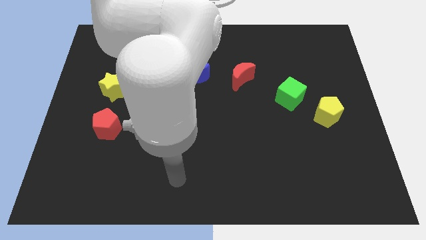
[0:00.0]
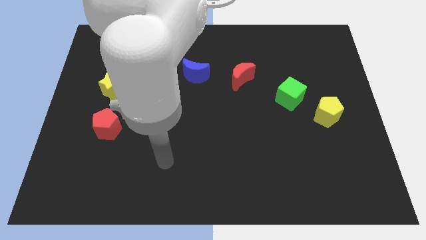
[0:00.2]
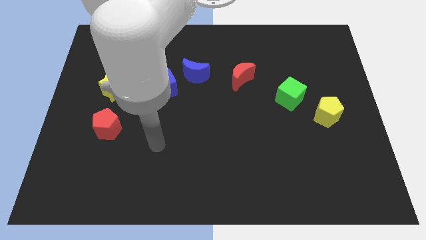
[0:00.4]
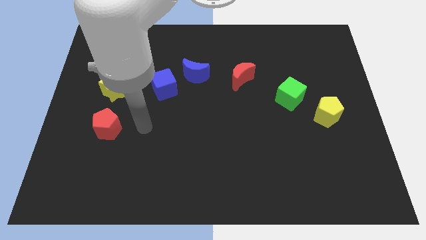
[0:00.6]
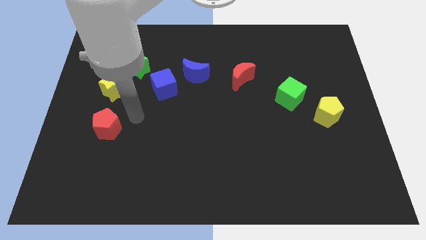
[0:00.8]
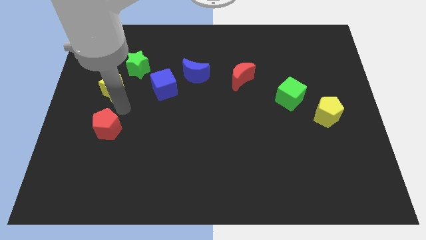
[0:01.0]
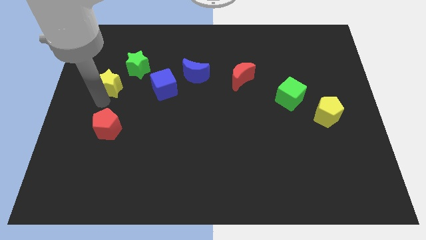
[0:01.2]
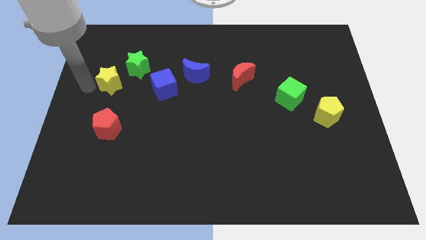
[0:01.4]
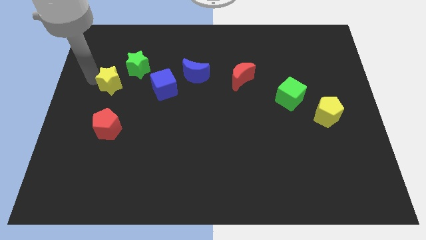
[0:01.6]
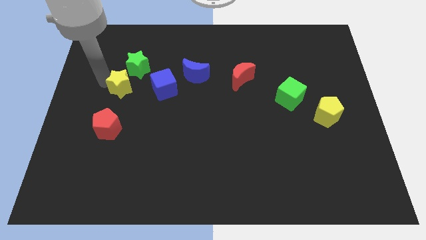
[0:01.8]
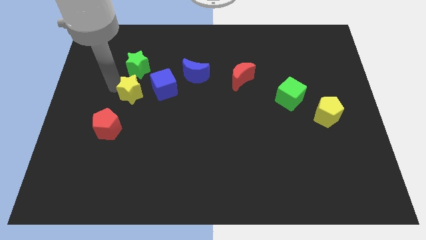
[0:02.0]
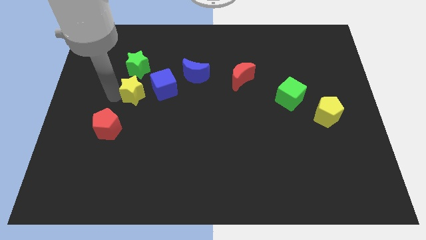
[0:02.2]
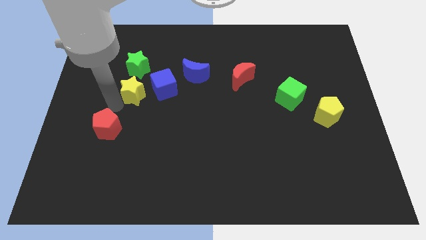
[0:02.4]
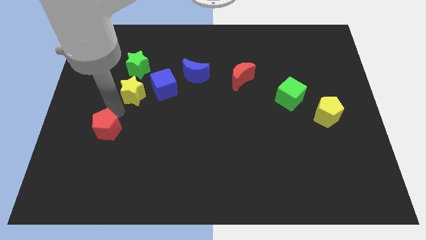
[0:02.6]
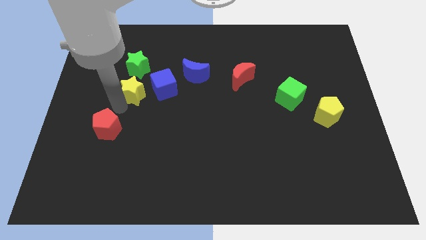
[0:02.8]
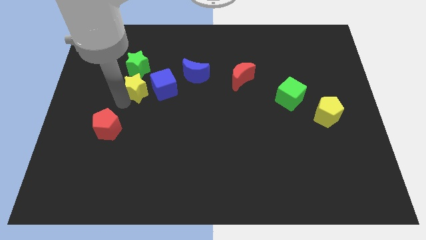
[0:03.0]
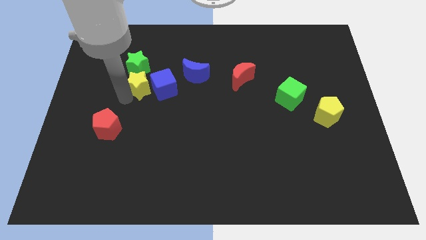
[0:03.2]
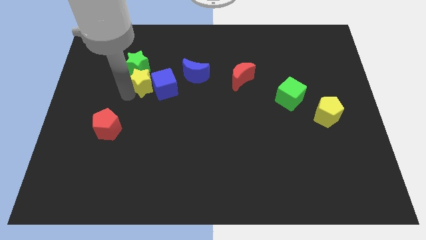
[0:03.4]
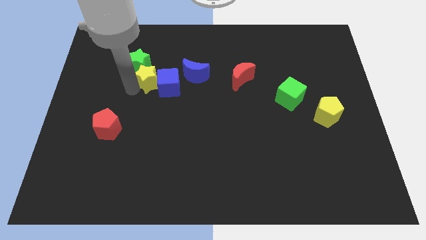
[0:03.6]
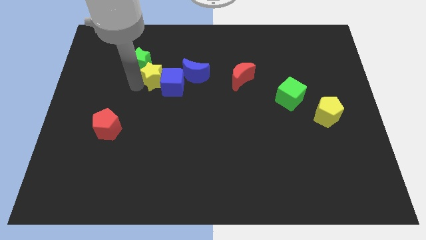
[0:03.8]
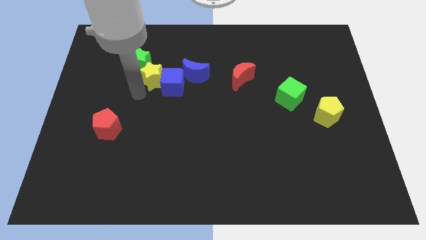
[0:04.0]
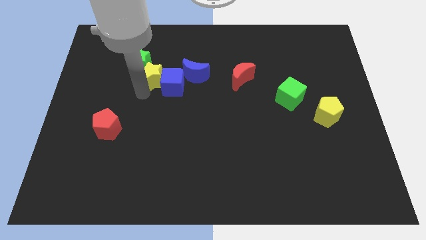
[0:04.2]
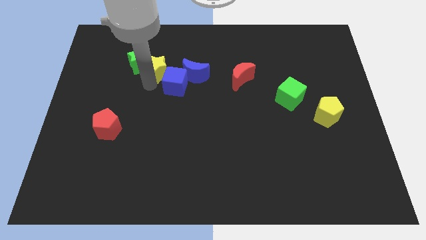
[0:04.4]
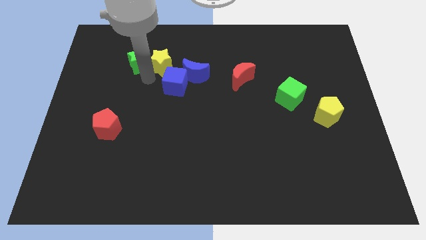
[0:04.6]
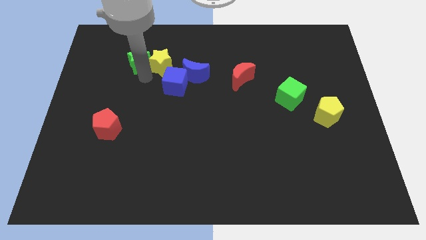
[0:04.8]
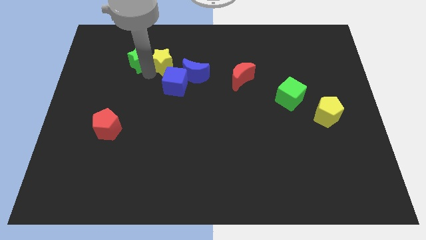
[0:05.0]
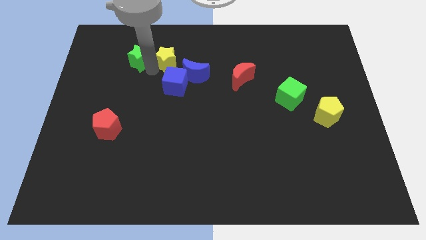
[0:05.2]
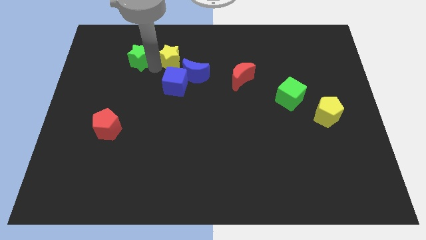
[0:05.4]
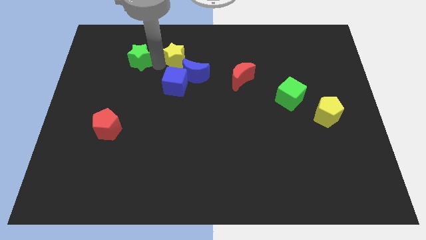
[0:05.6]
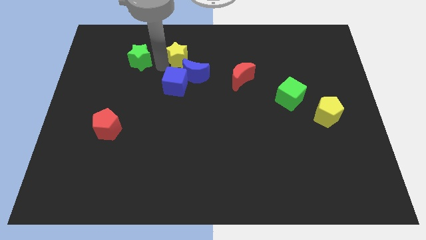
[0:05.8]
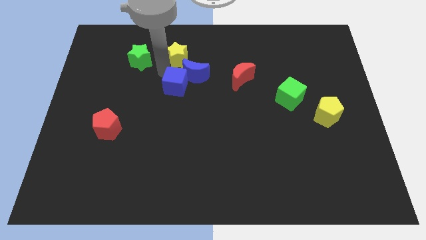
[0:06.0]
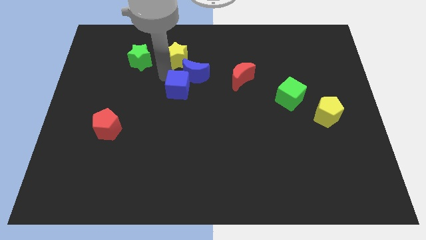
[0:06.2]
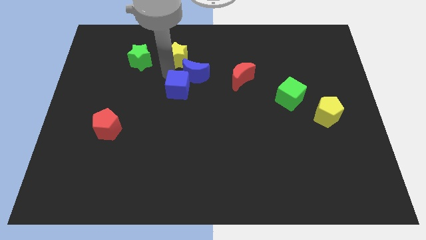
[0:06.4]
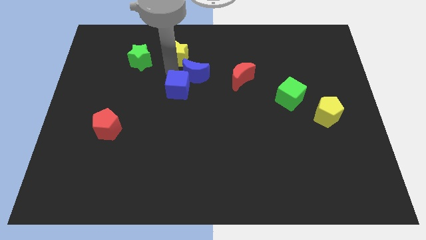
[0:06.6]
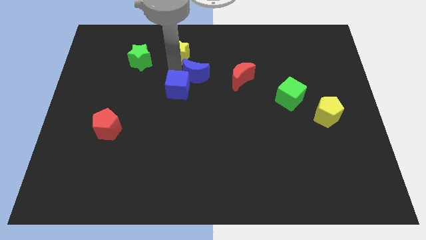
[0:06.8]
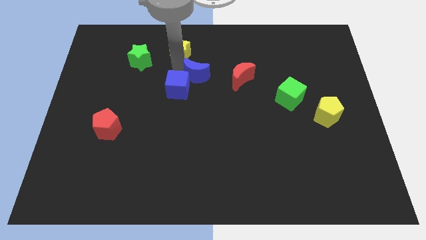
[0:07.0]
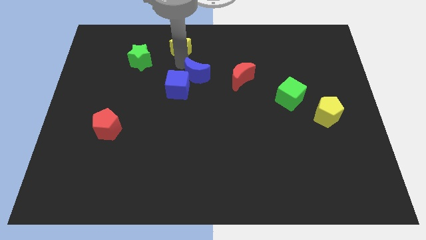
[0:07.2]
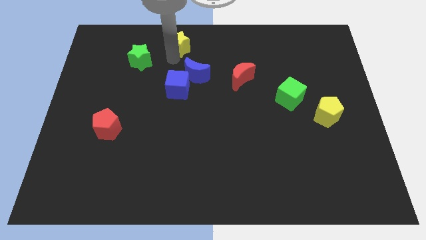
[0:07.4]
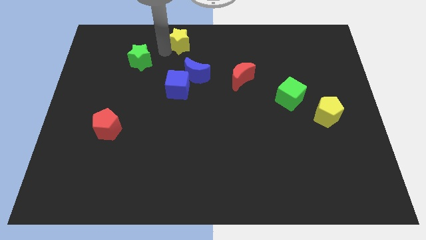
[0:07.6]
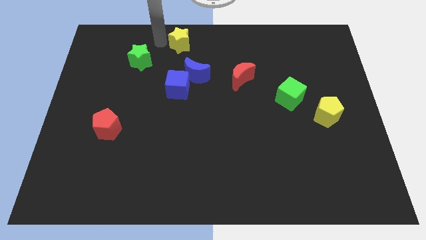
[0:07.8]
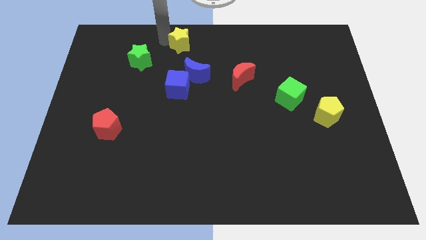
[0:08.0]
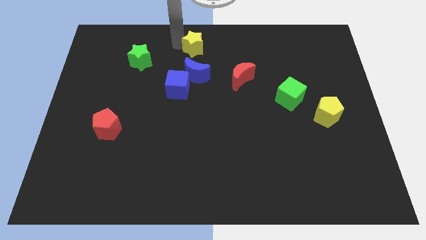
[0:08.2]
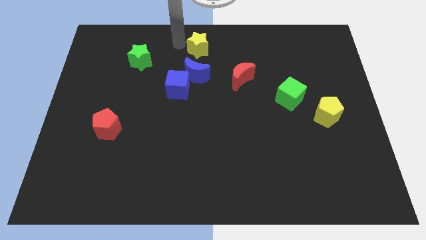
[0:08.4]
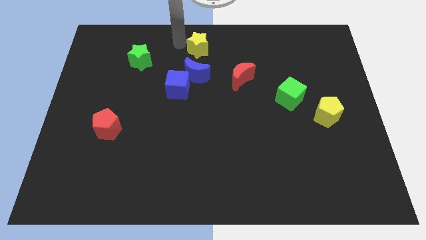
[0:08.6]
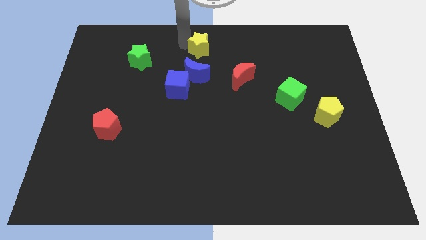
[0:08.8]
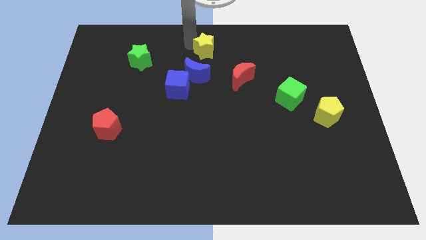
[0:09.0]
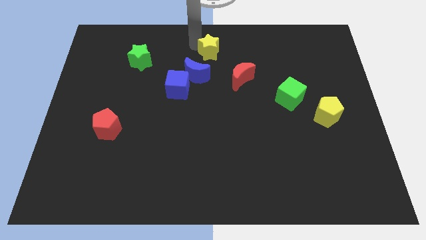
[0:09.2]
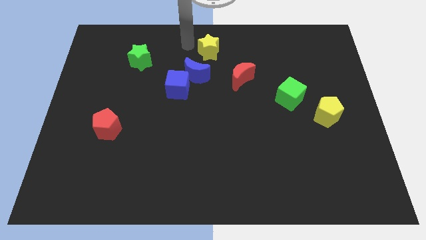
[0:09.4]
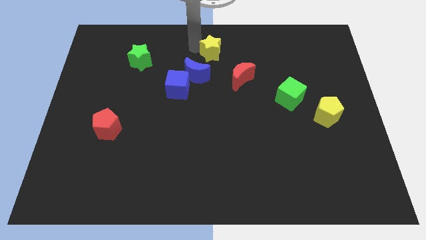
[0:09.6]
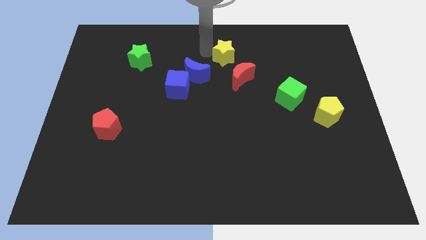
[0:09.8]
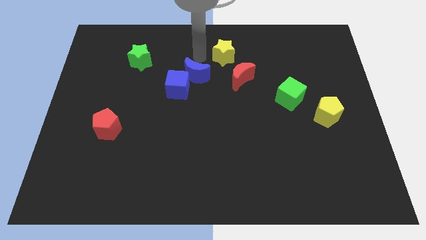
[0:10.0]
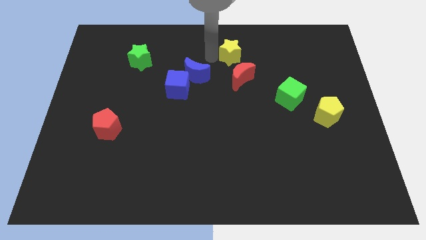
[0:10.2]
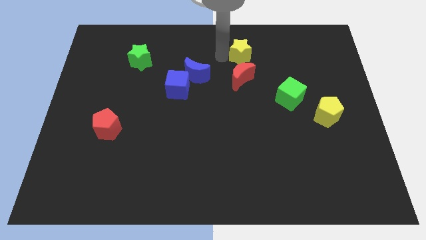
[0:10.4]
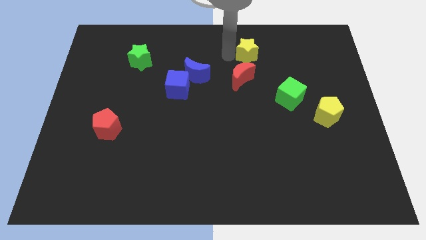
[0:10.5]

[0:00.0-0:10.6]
slide the yellow star to the top right side of the red moon

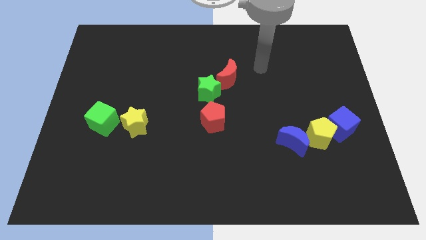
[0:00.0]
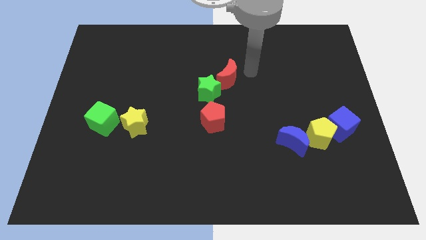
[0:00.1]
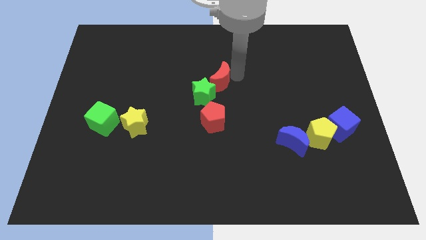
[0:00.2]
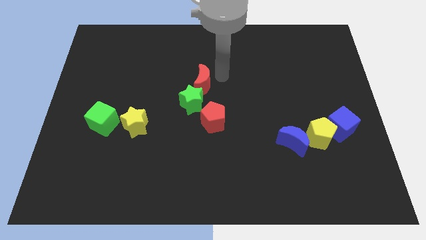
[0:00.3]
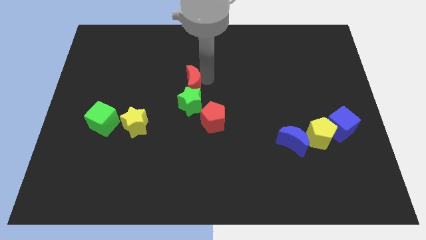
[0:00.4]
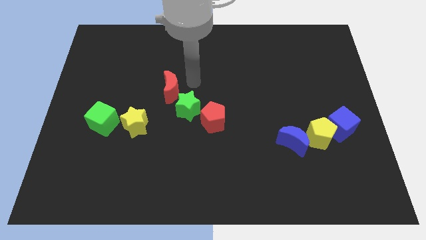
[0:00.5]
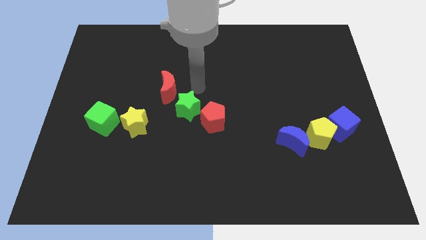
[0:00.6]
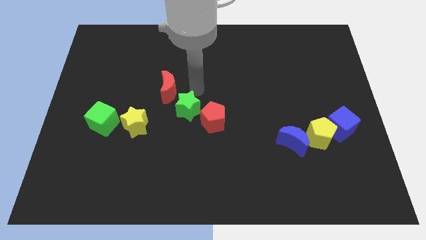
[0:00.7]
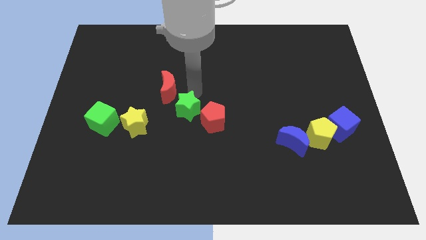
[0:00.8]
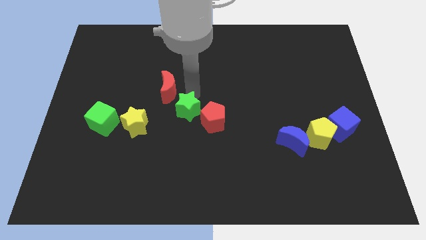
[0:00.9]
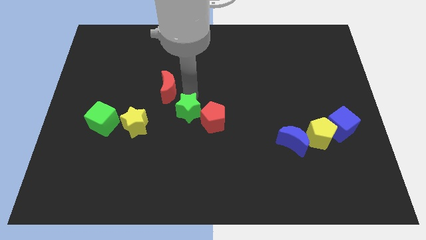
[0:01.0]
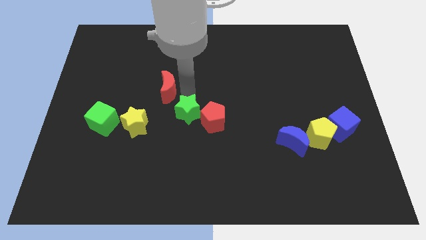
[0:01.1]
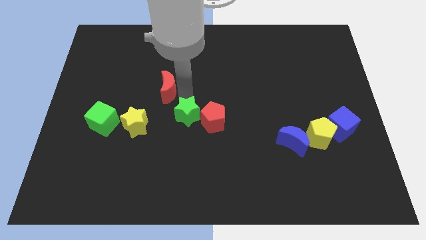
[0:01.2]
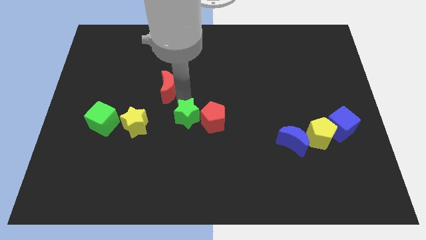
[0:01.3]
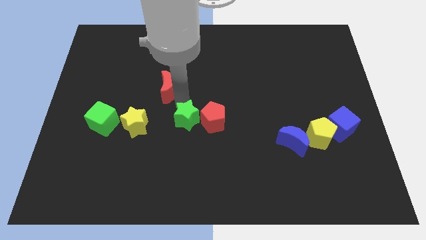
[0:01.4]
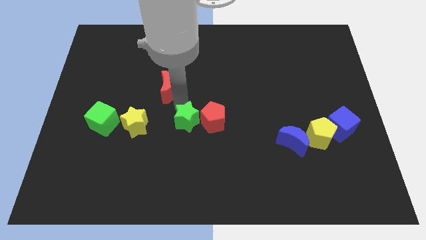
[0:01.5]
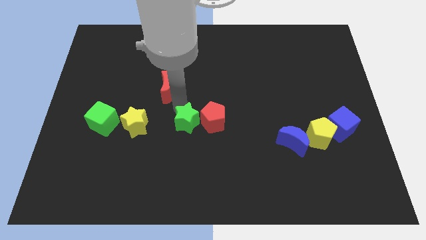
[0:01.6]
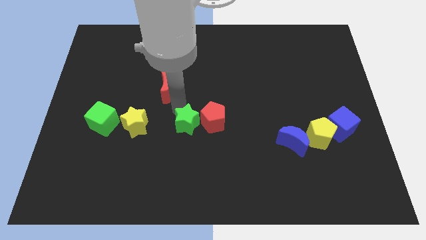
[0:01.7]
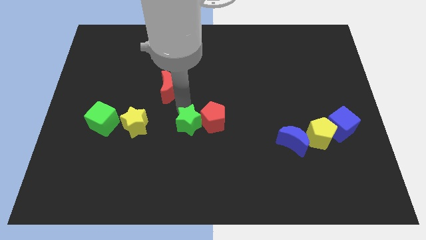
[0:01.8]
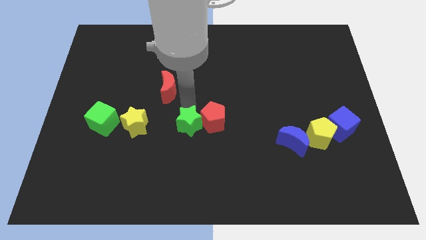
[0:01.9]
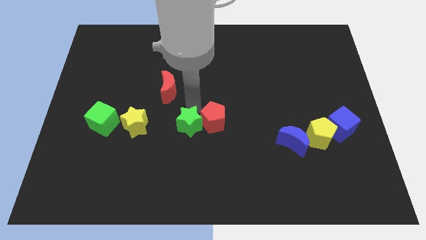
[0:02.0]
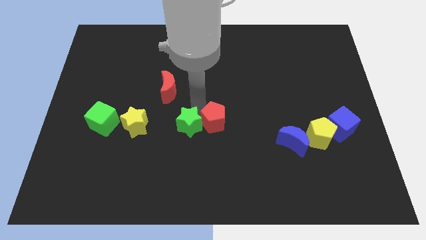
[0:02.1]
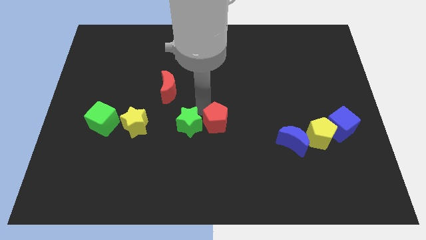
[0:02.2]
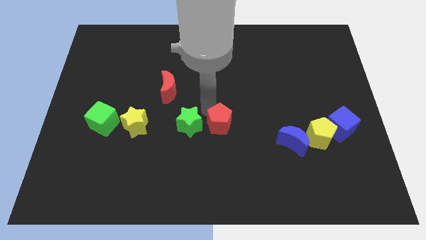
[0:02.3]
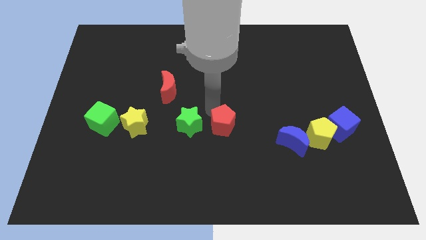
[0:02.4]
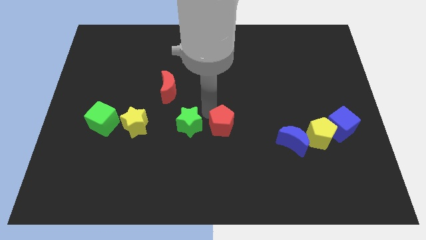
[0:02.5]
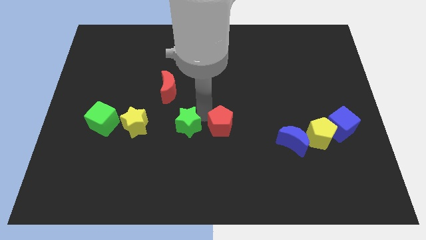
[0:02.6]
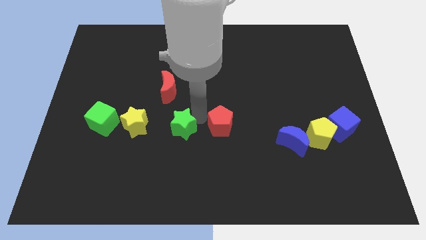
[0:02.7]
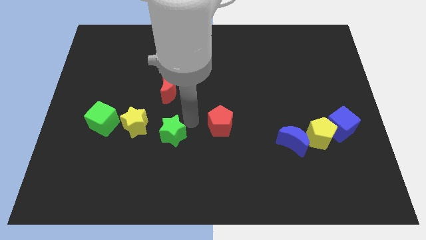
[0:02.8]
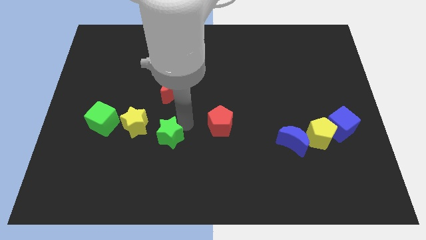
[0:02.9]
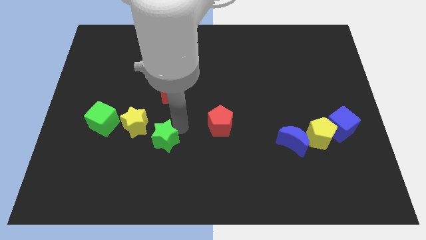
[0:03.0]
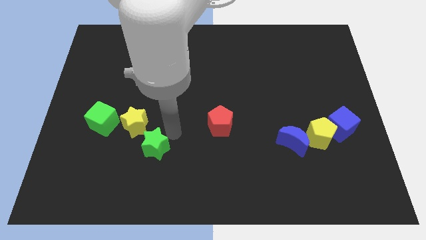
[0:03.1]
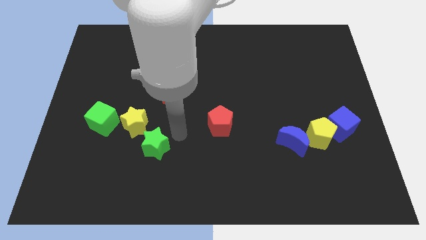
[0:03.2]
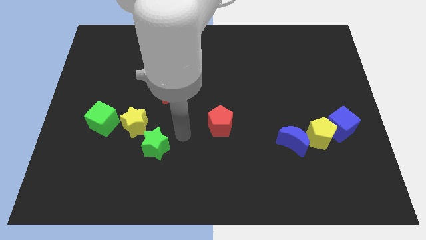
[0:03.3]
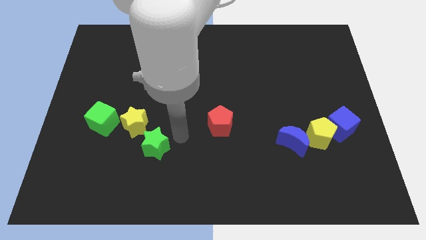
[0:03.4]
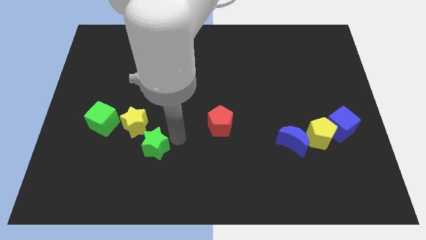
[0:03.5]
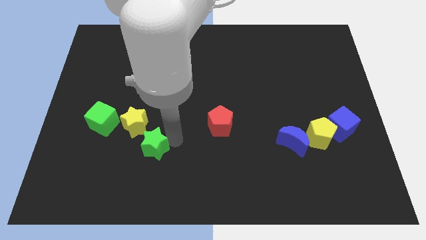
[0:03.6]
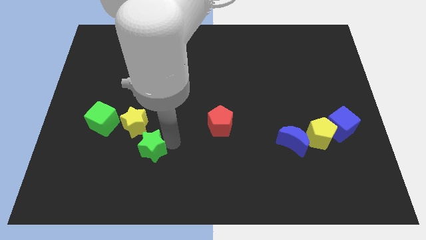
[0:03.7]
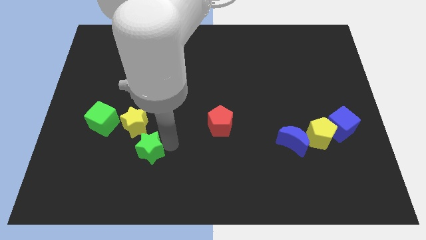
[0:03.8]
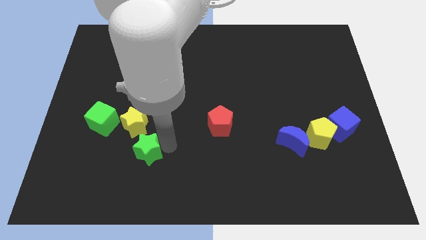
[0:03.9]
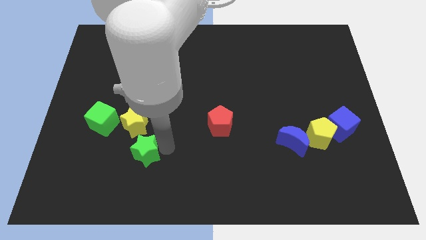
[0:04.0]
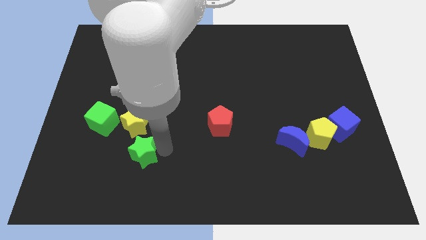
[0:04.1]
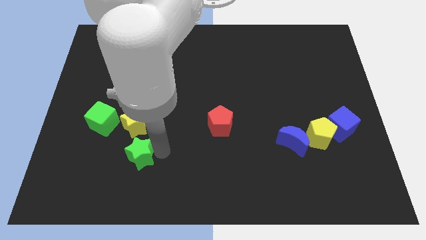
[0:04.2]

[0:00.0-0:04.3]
push the green star diagonally down and to the right of the green cube
